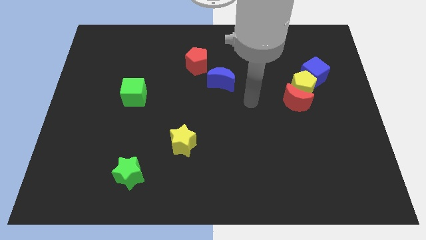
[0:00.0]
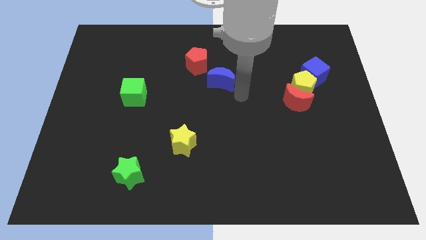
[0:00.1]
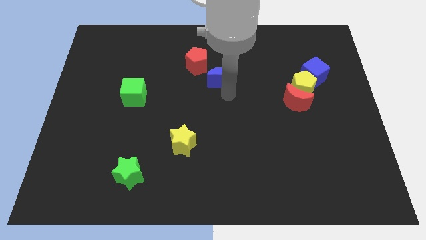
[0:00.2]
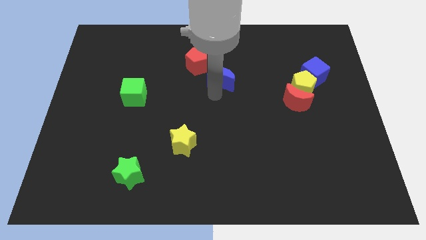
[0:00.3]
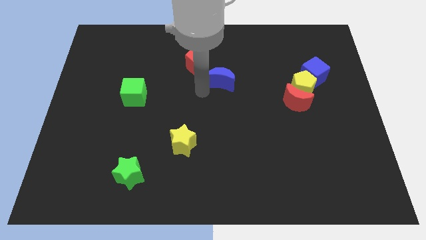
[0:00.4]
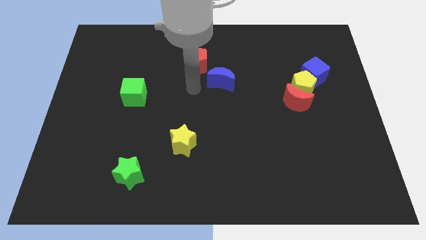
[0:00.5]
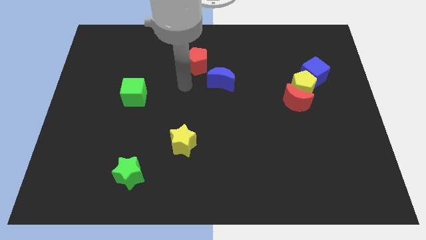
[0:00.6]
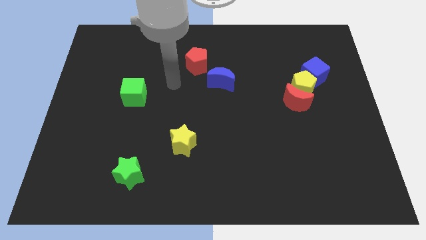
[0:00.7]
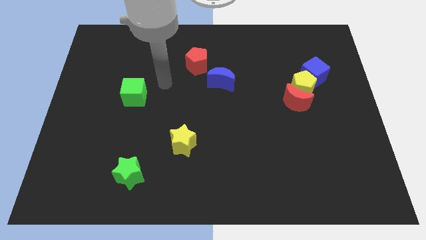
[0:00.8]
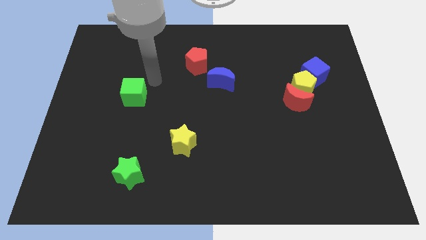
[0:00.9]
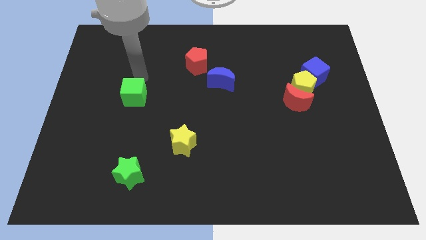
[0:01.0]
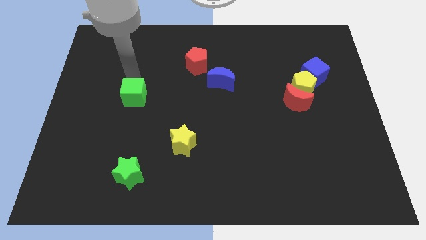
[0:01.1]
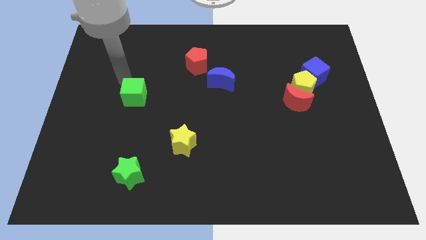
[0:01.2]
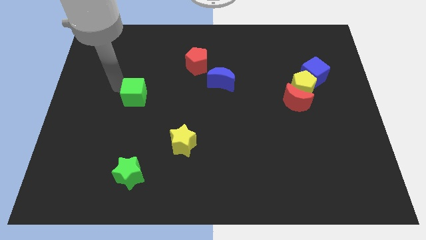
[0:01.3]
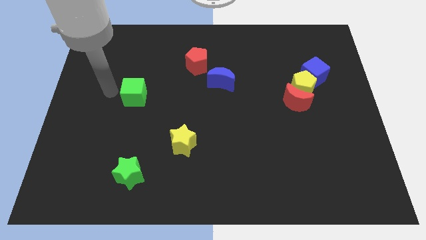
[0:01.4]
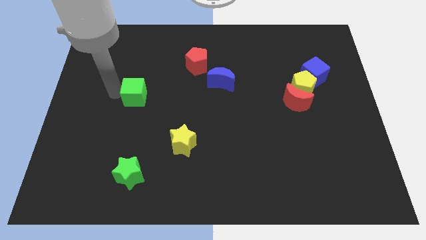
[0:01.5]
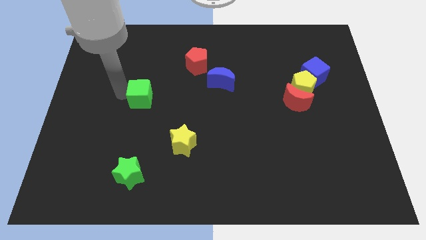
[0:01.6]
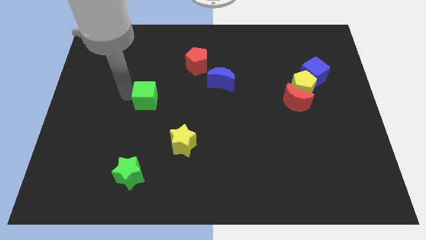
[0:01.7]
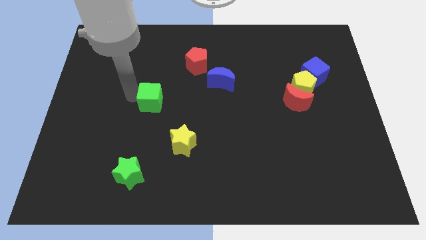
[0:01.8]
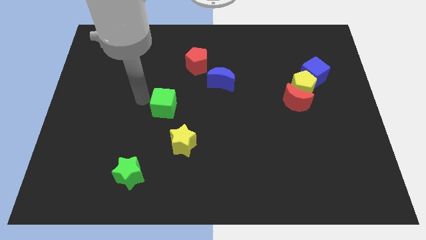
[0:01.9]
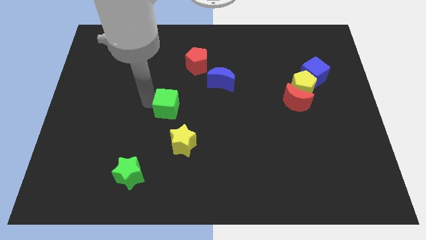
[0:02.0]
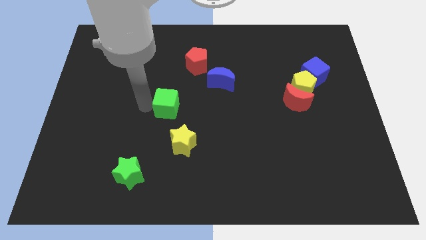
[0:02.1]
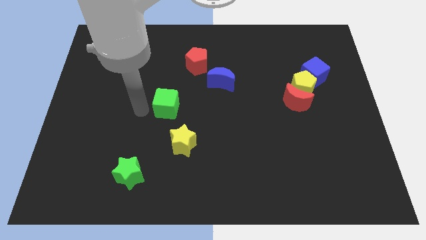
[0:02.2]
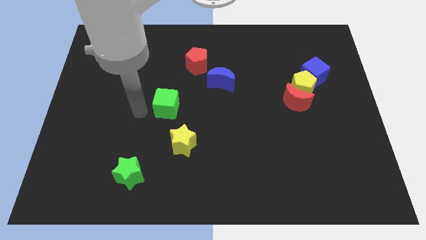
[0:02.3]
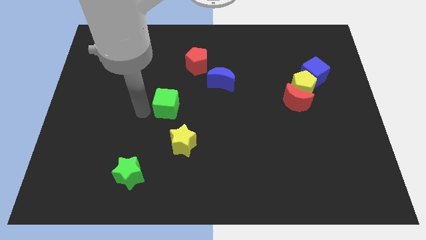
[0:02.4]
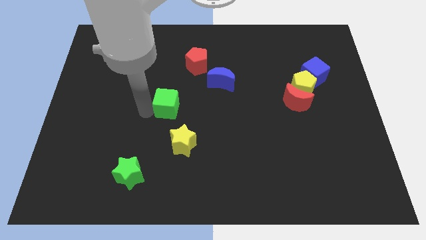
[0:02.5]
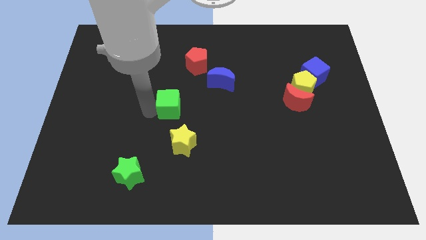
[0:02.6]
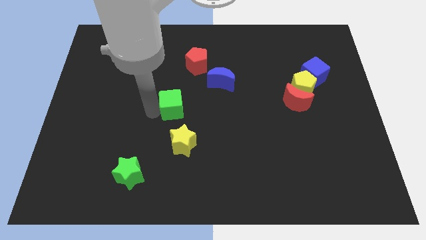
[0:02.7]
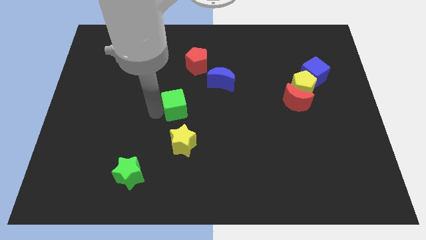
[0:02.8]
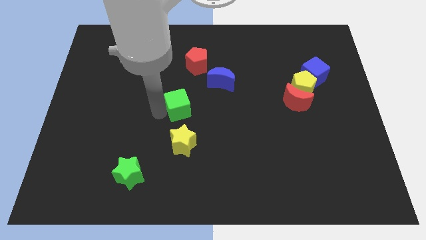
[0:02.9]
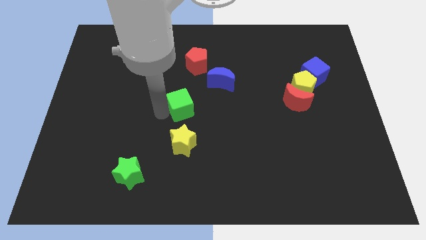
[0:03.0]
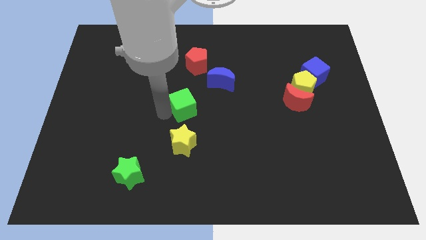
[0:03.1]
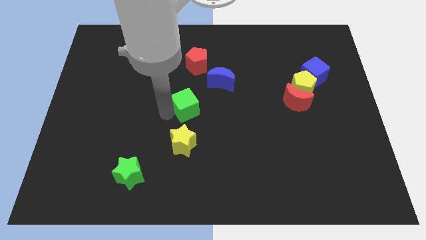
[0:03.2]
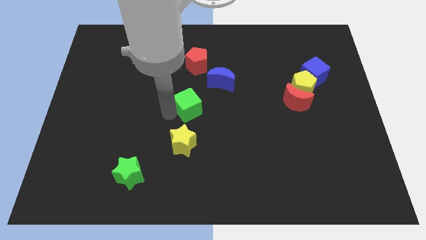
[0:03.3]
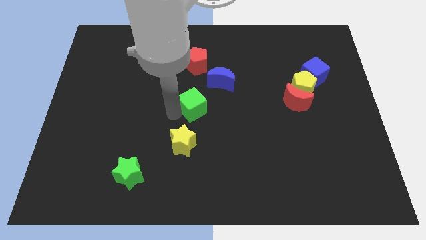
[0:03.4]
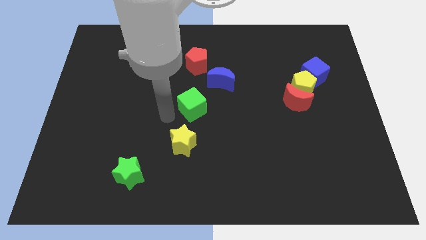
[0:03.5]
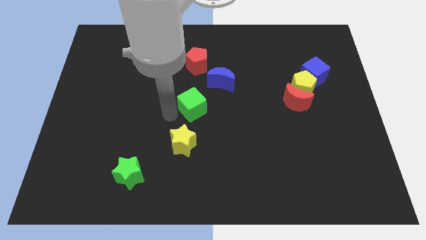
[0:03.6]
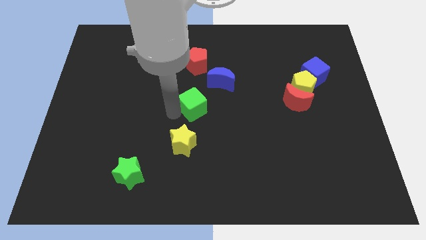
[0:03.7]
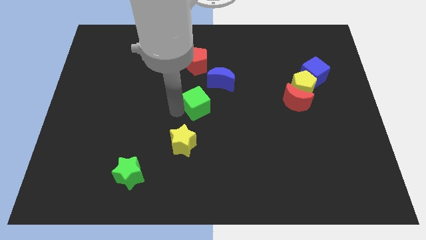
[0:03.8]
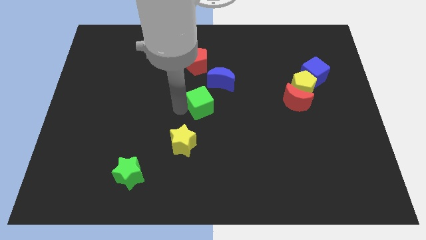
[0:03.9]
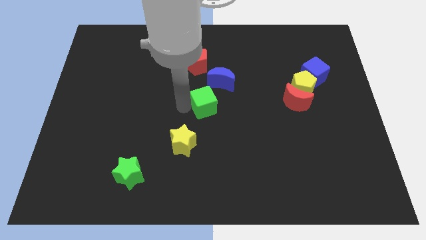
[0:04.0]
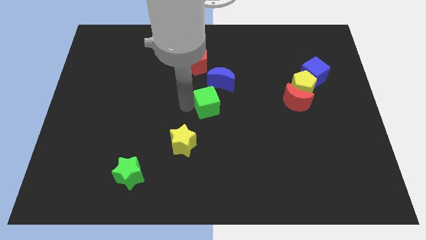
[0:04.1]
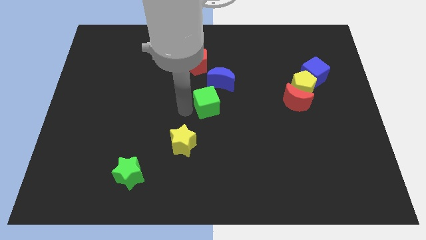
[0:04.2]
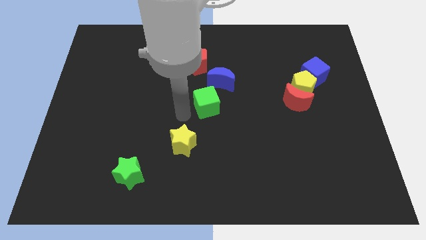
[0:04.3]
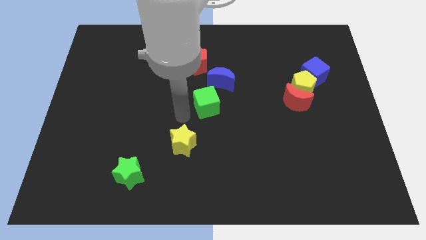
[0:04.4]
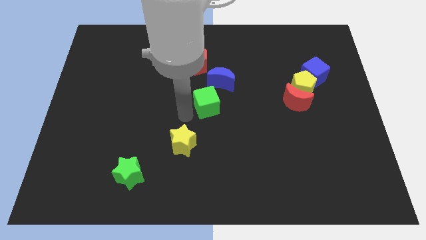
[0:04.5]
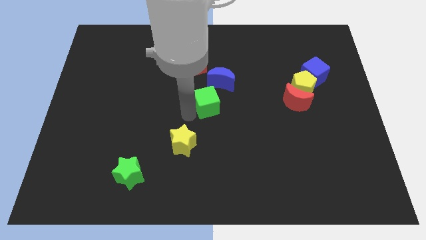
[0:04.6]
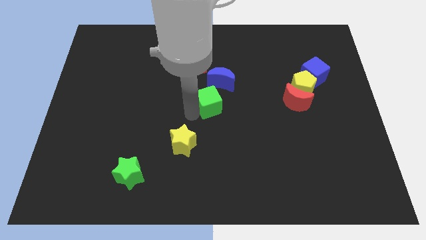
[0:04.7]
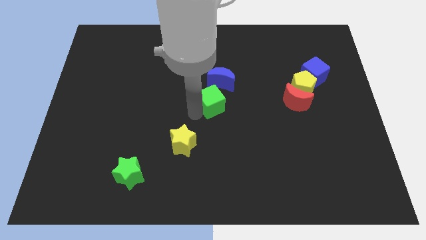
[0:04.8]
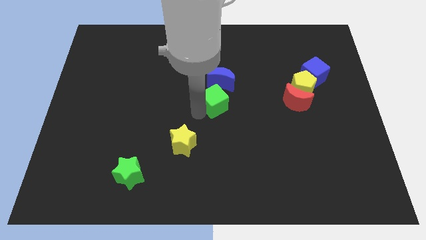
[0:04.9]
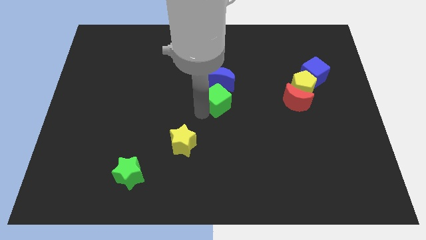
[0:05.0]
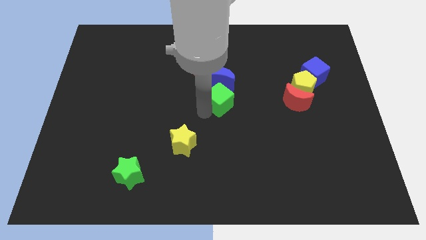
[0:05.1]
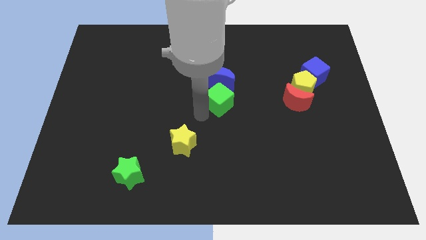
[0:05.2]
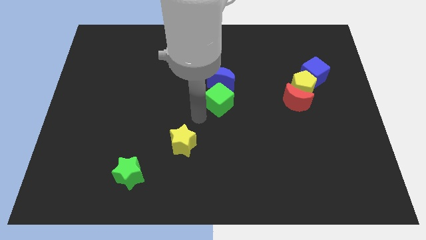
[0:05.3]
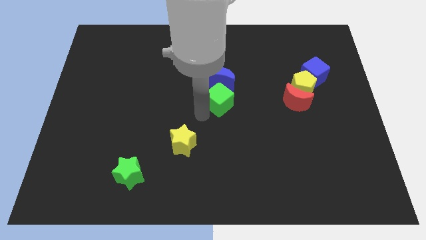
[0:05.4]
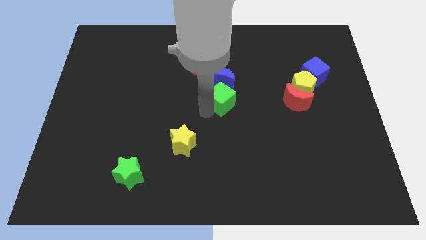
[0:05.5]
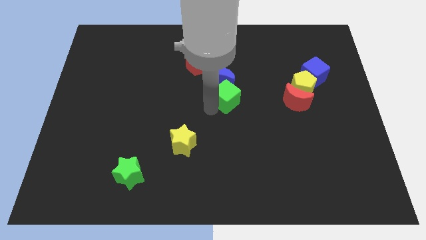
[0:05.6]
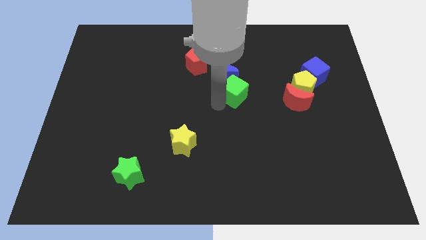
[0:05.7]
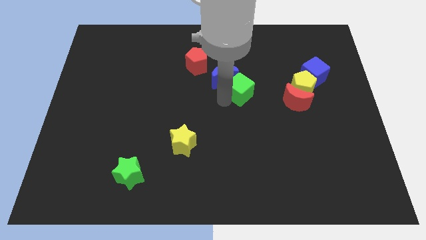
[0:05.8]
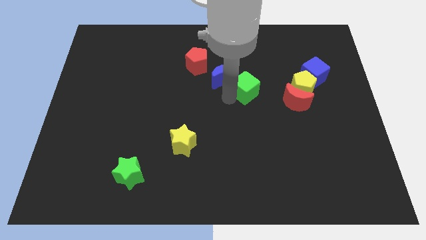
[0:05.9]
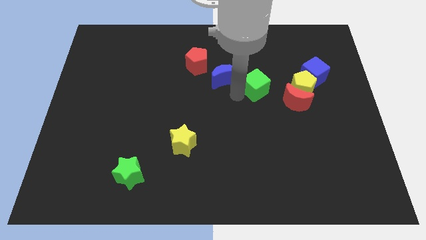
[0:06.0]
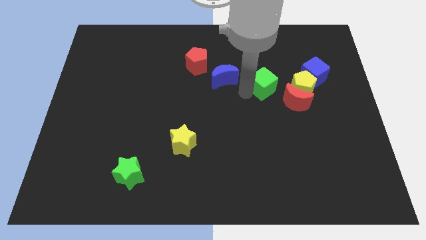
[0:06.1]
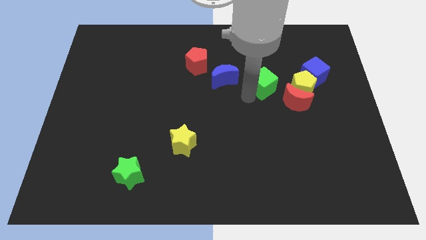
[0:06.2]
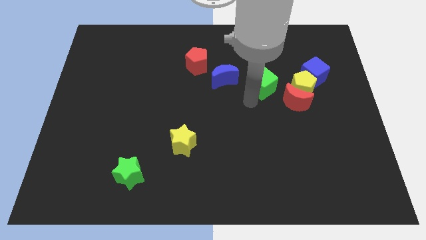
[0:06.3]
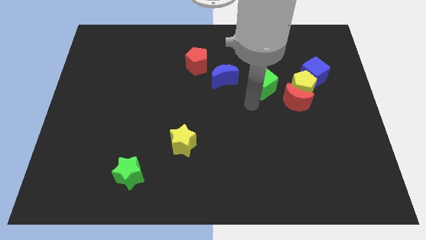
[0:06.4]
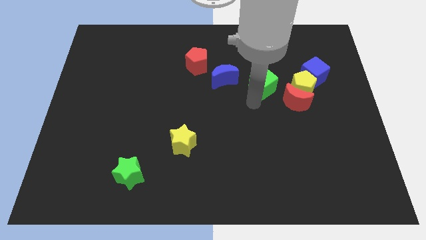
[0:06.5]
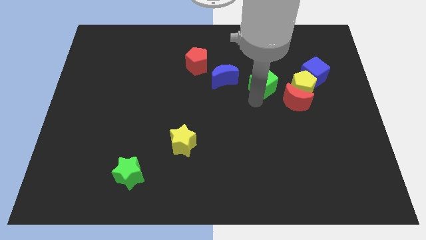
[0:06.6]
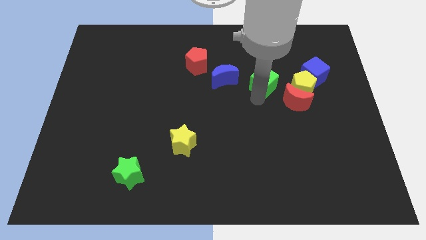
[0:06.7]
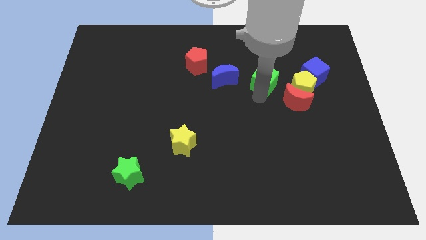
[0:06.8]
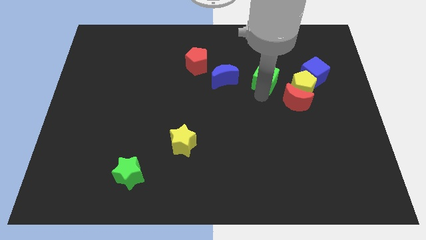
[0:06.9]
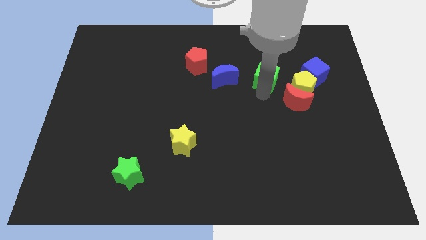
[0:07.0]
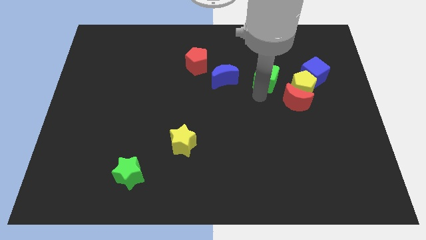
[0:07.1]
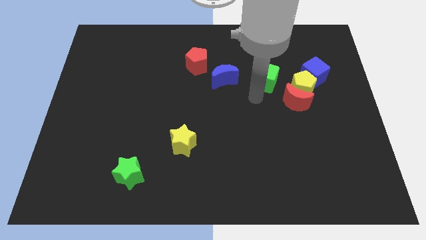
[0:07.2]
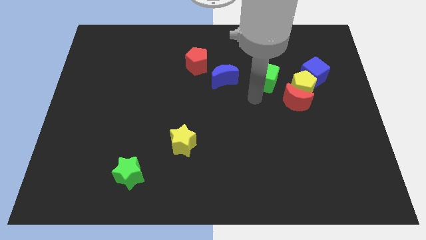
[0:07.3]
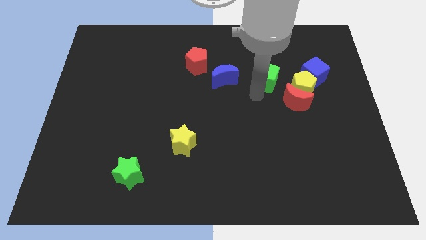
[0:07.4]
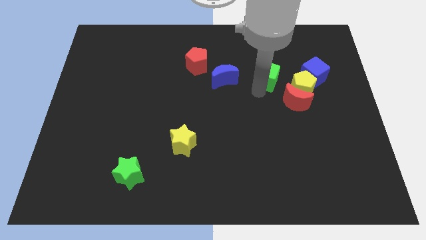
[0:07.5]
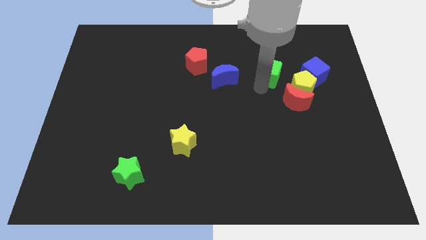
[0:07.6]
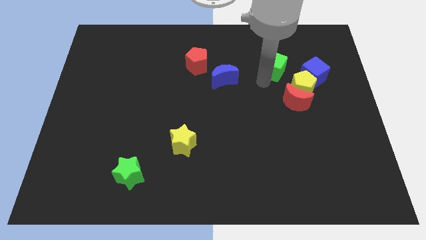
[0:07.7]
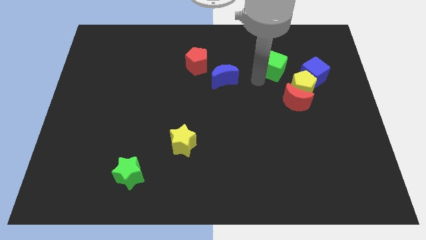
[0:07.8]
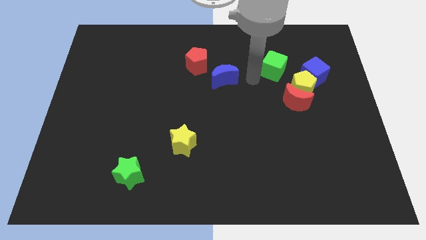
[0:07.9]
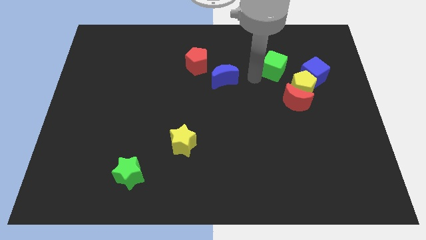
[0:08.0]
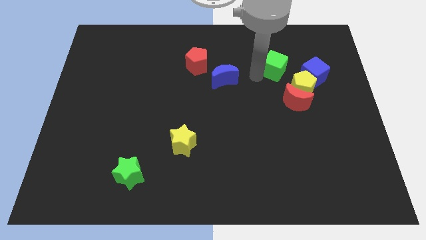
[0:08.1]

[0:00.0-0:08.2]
slide the green cube to the top left side of the blue cube
